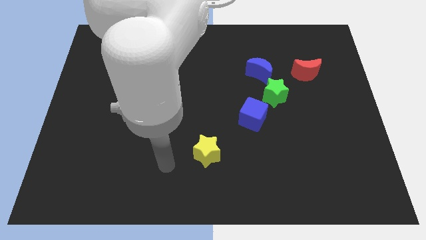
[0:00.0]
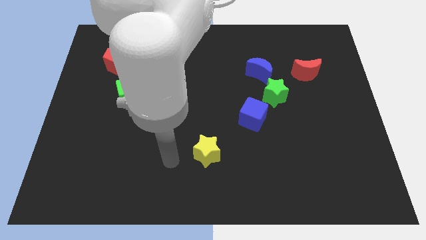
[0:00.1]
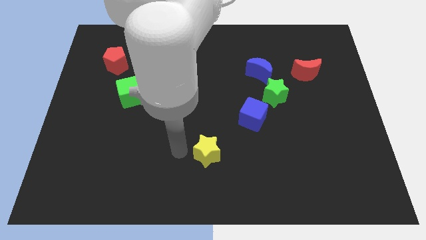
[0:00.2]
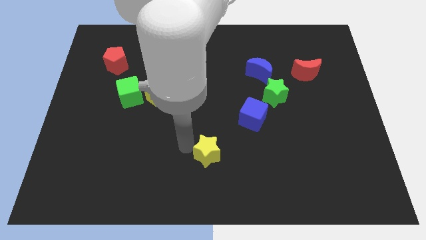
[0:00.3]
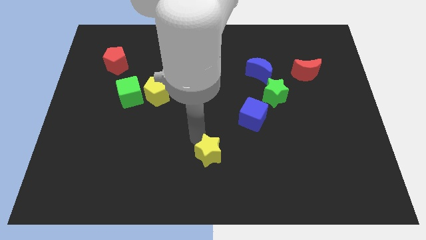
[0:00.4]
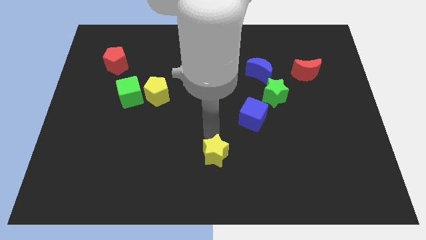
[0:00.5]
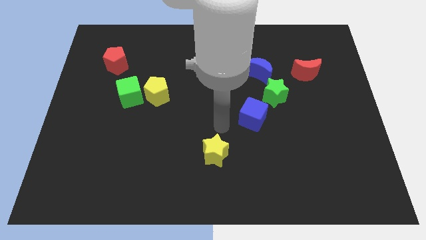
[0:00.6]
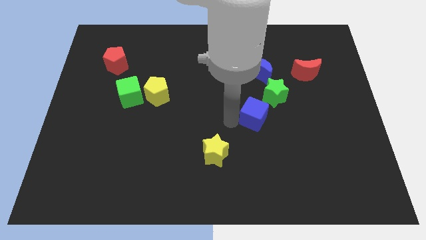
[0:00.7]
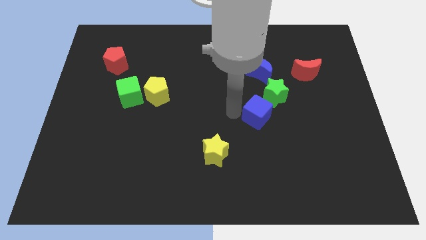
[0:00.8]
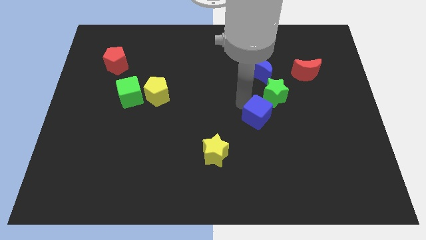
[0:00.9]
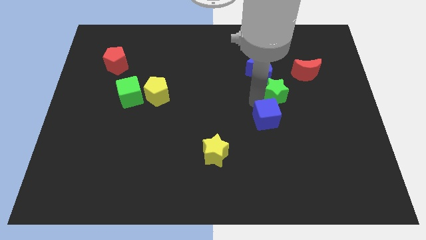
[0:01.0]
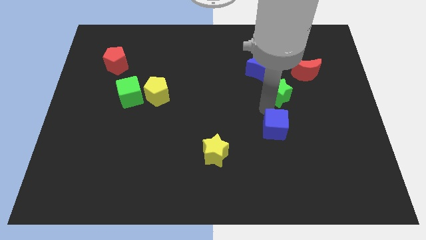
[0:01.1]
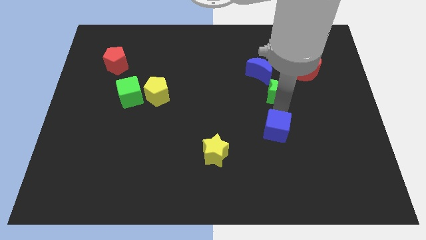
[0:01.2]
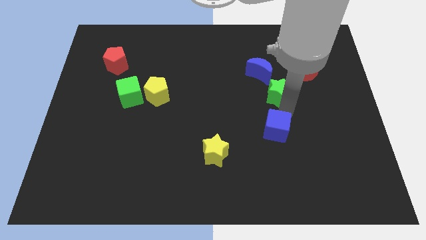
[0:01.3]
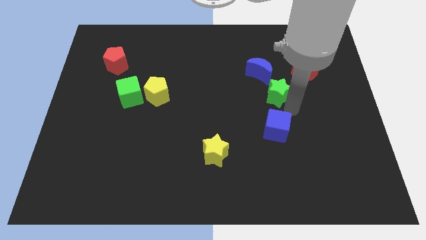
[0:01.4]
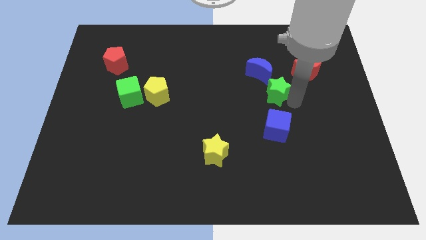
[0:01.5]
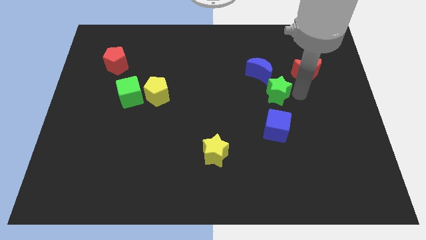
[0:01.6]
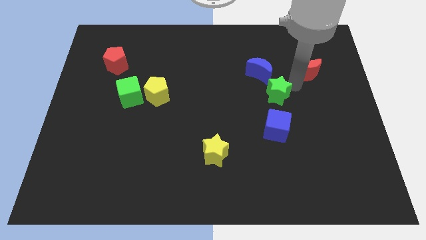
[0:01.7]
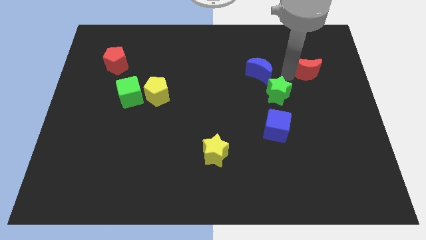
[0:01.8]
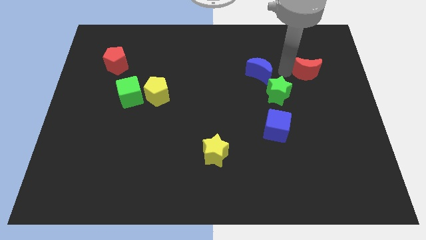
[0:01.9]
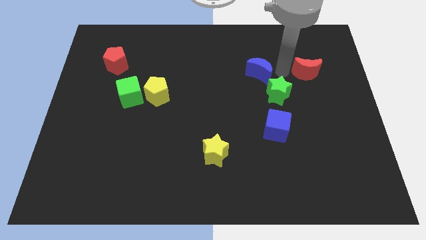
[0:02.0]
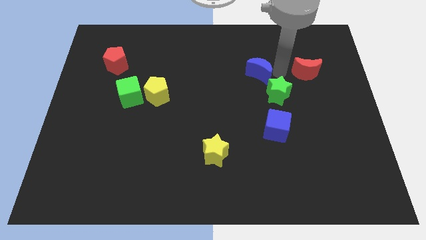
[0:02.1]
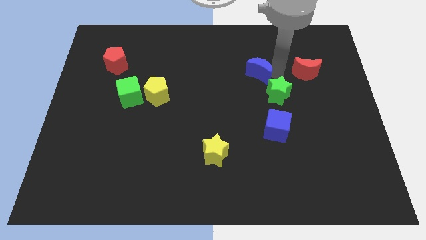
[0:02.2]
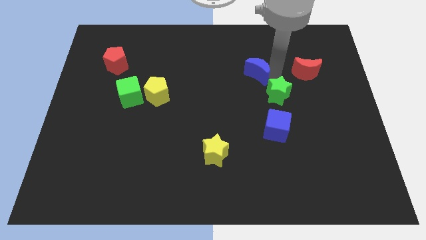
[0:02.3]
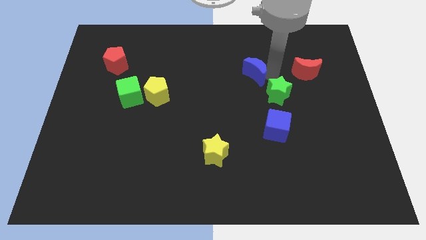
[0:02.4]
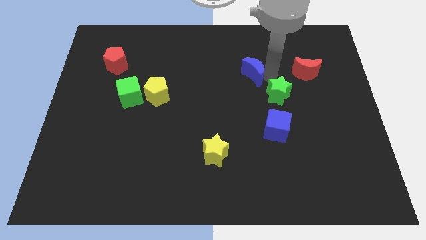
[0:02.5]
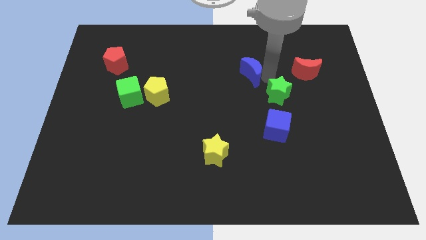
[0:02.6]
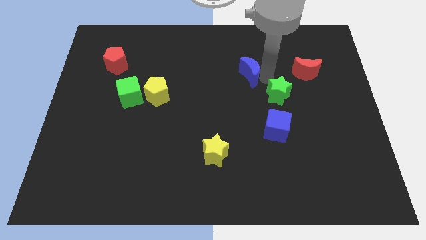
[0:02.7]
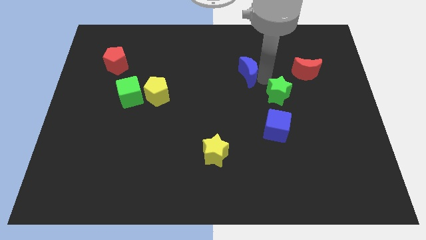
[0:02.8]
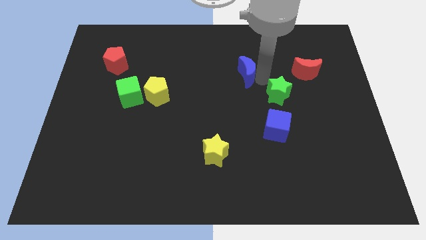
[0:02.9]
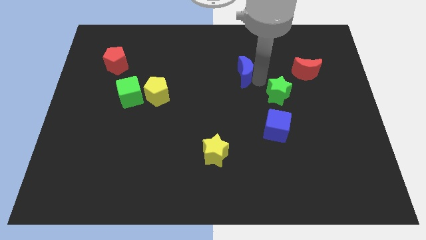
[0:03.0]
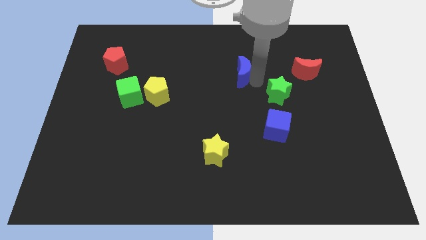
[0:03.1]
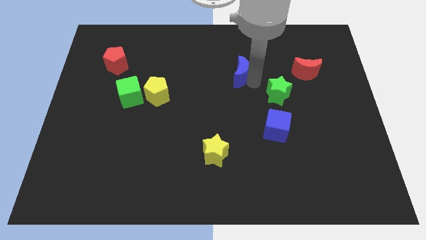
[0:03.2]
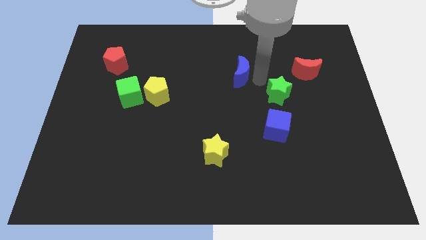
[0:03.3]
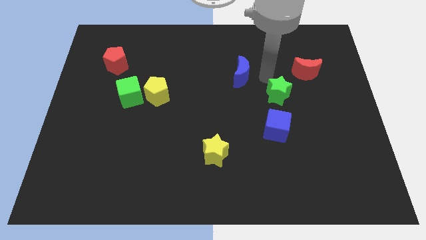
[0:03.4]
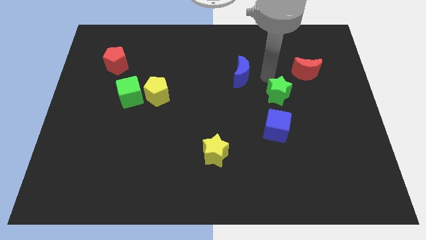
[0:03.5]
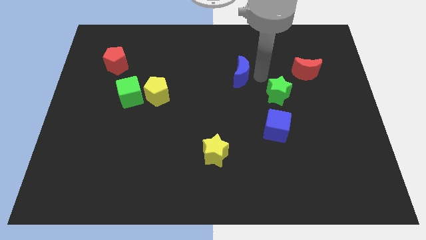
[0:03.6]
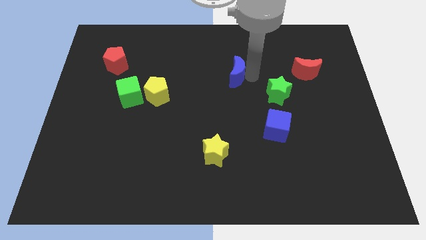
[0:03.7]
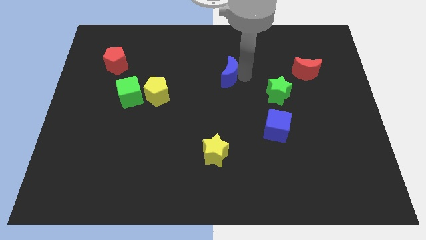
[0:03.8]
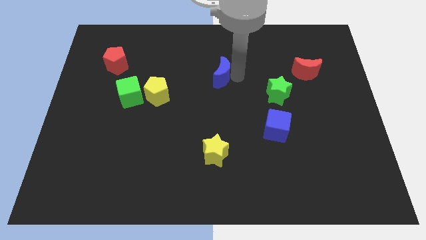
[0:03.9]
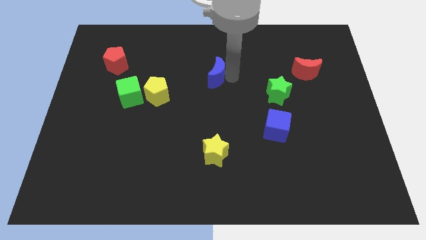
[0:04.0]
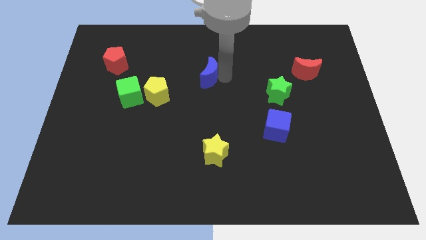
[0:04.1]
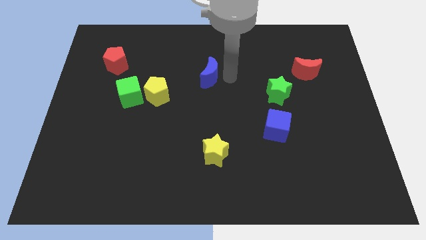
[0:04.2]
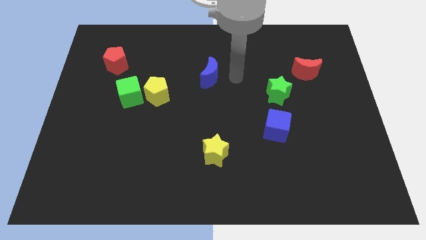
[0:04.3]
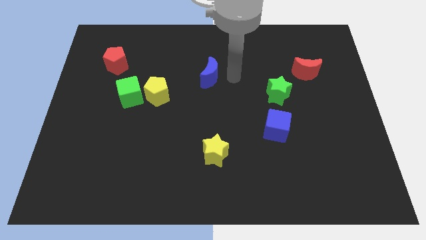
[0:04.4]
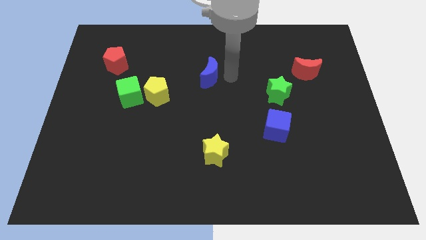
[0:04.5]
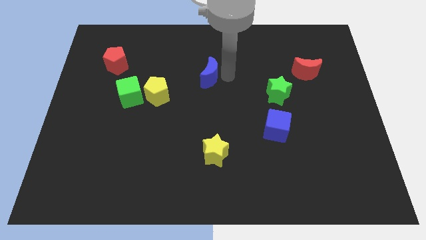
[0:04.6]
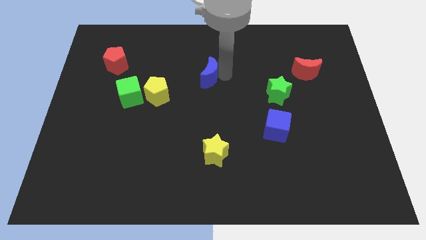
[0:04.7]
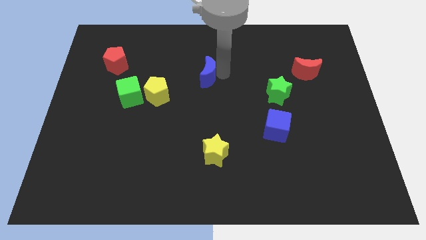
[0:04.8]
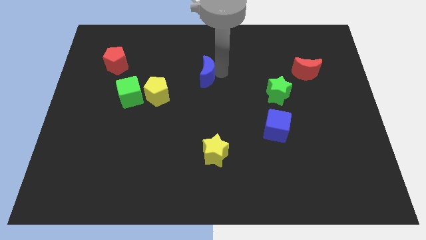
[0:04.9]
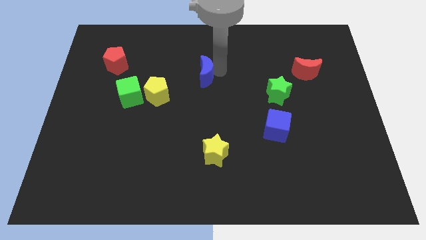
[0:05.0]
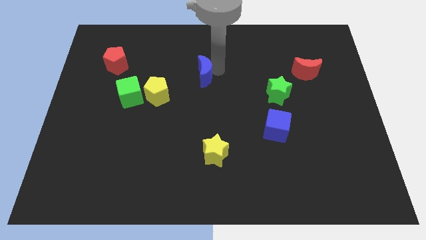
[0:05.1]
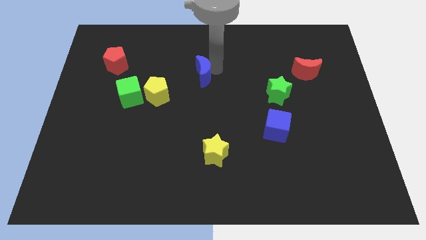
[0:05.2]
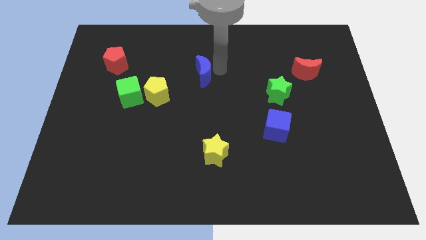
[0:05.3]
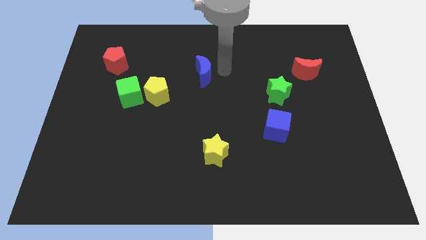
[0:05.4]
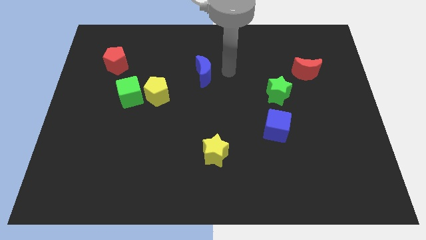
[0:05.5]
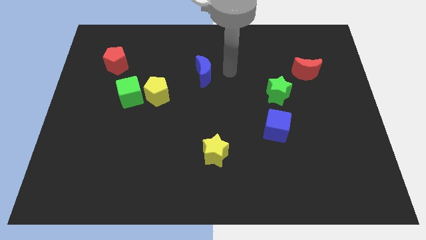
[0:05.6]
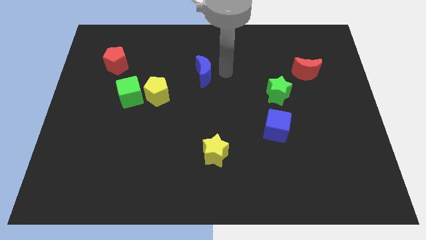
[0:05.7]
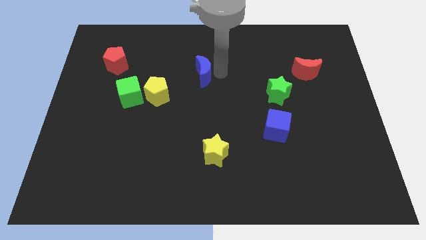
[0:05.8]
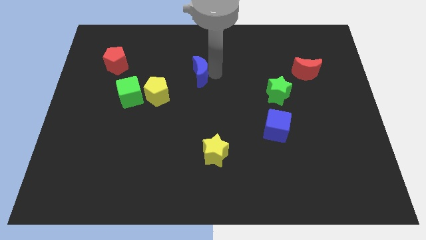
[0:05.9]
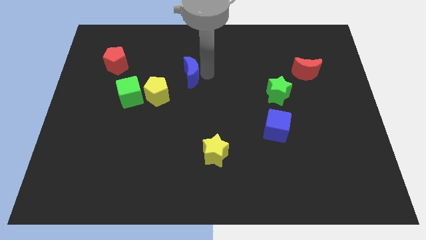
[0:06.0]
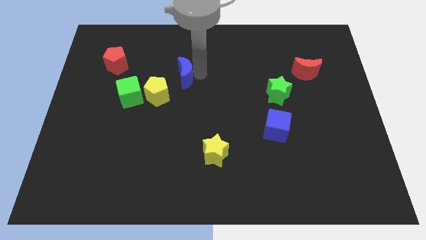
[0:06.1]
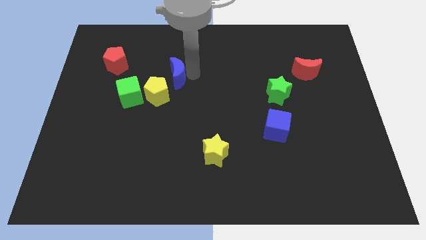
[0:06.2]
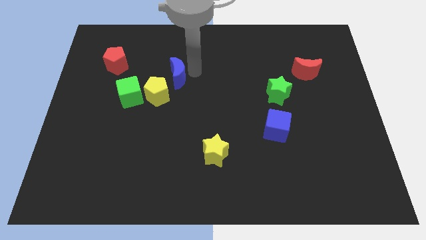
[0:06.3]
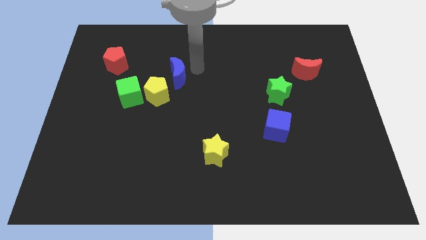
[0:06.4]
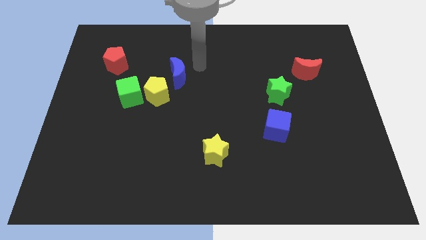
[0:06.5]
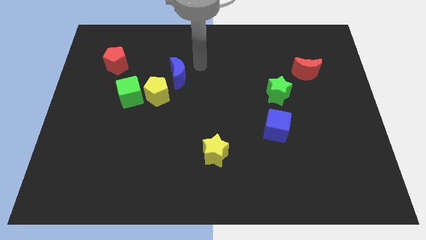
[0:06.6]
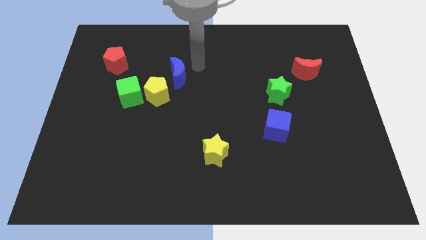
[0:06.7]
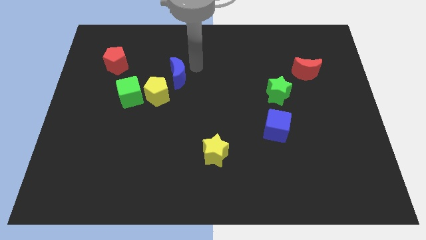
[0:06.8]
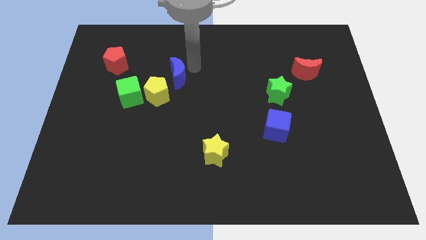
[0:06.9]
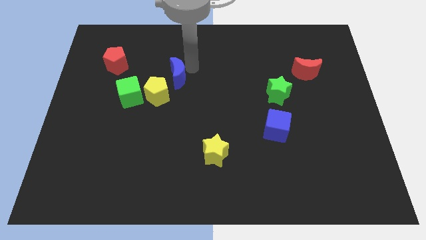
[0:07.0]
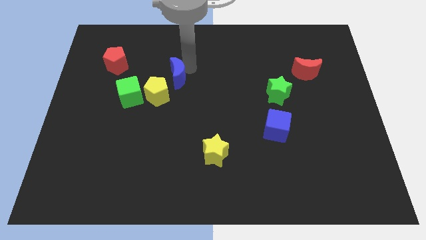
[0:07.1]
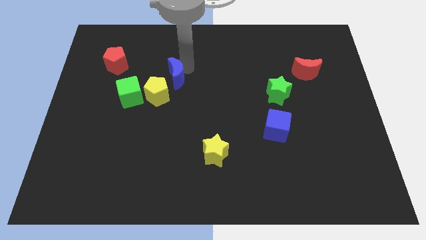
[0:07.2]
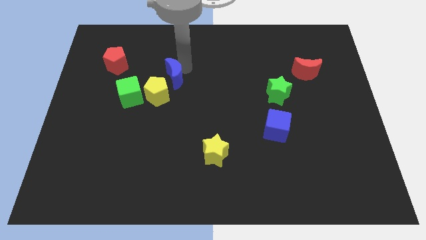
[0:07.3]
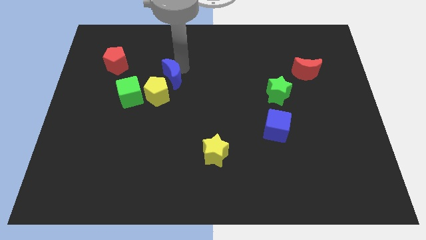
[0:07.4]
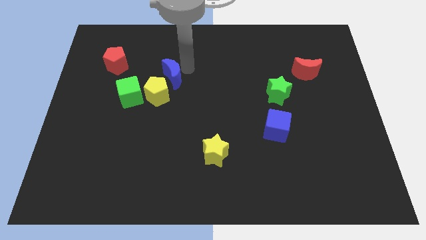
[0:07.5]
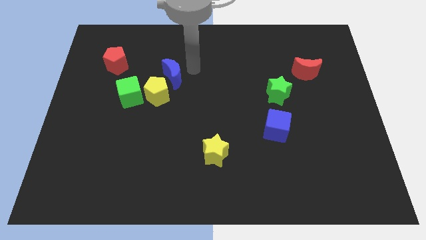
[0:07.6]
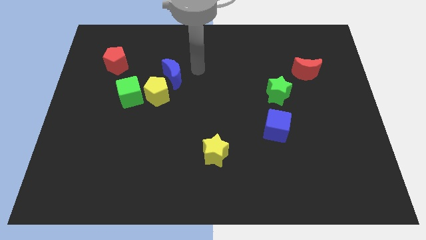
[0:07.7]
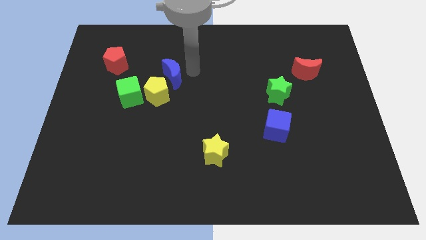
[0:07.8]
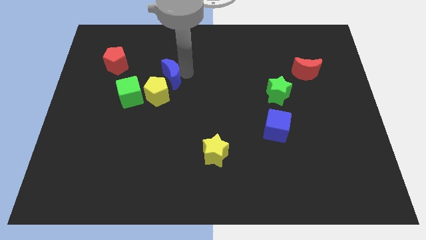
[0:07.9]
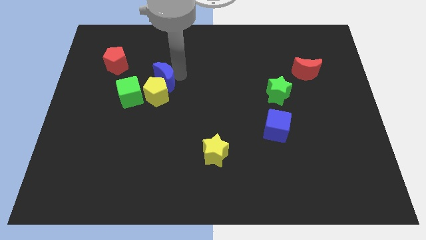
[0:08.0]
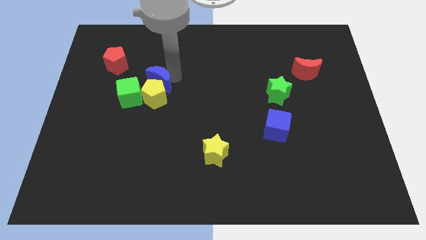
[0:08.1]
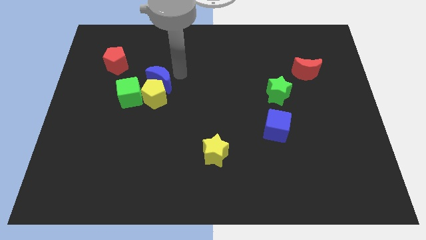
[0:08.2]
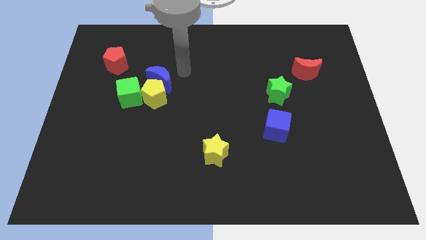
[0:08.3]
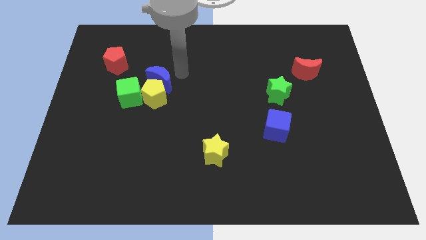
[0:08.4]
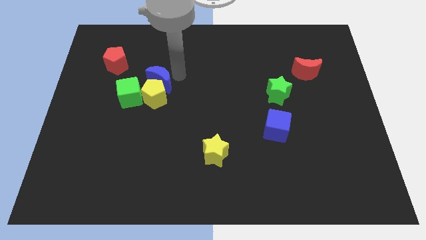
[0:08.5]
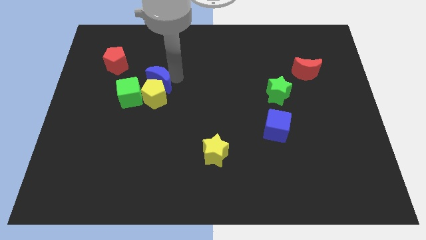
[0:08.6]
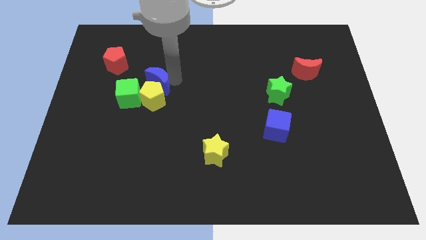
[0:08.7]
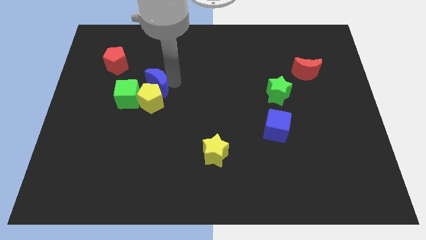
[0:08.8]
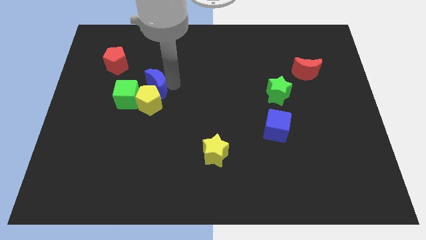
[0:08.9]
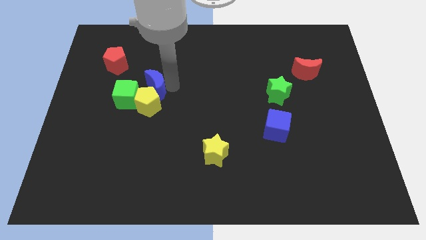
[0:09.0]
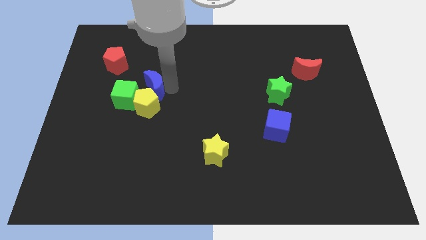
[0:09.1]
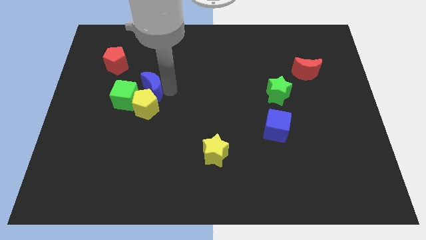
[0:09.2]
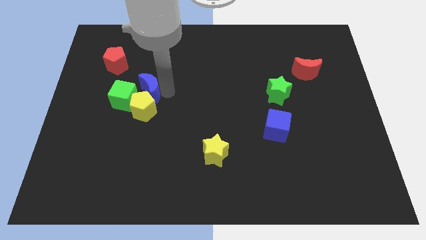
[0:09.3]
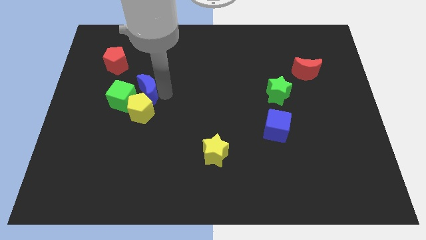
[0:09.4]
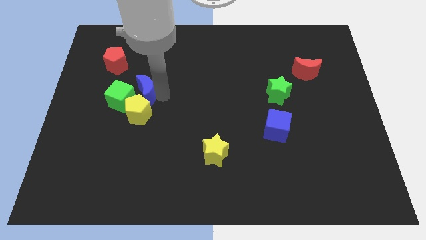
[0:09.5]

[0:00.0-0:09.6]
slide the blue moon towards the green cube
